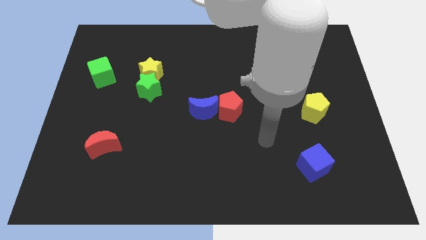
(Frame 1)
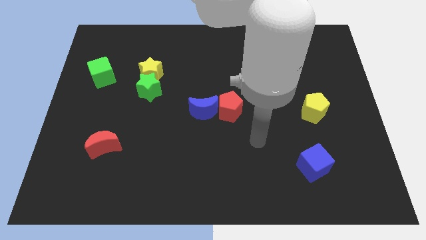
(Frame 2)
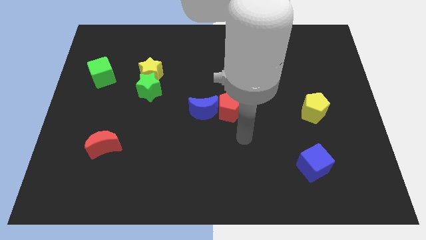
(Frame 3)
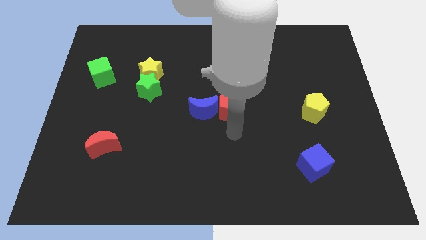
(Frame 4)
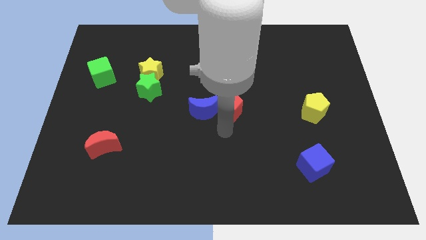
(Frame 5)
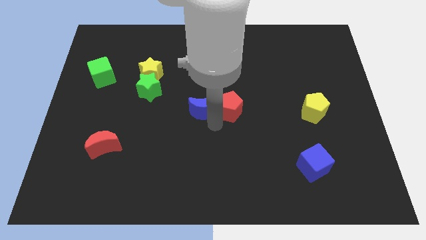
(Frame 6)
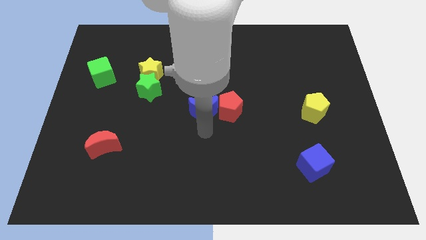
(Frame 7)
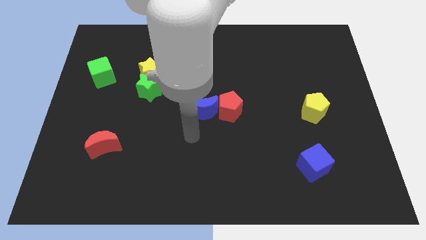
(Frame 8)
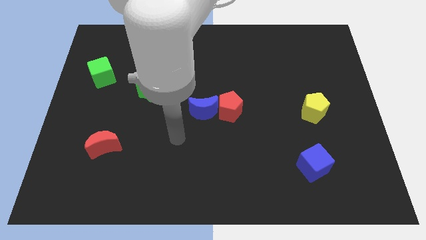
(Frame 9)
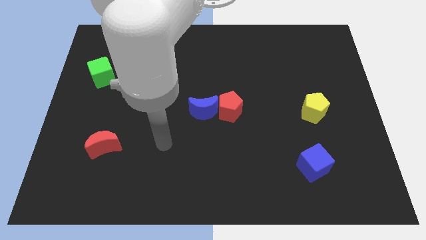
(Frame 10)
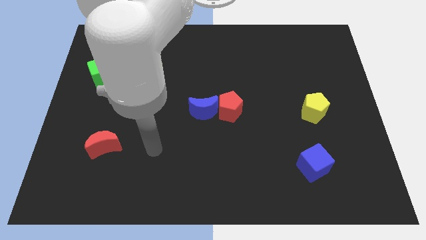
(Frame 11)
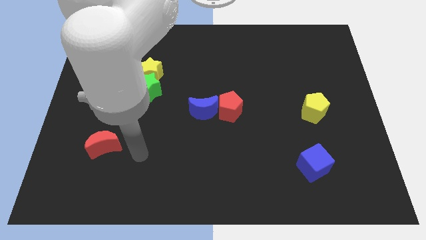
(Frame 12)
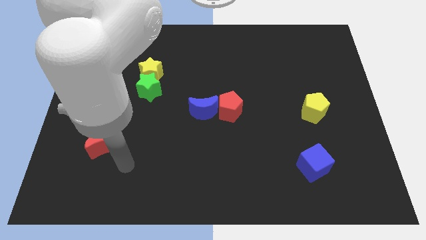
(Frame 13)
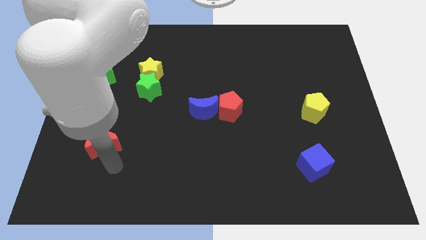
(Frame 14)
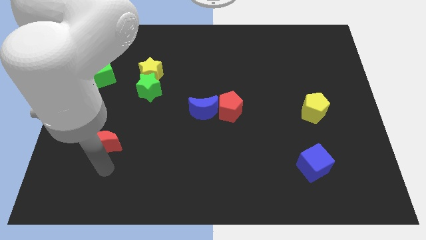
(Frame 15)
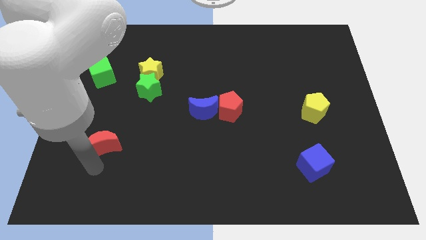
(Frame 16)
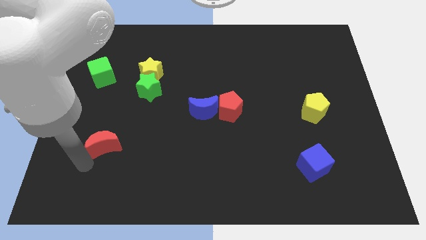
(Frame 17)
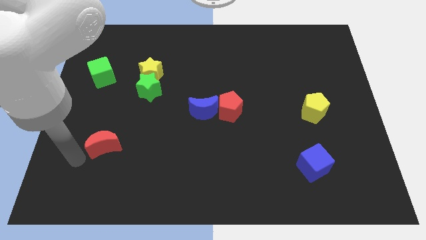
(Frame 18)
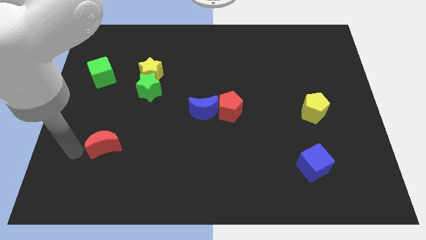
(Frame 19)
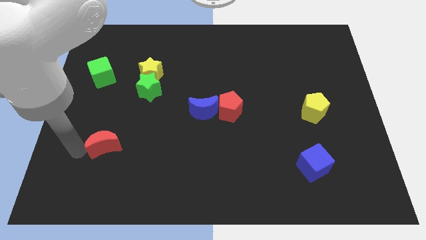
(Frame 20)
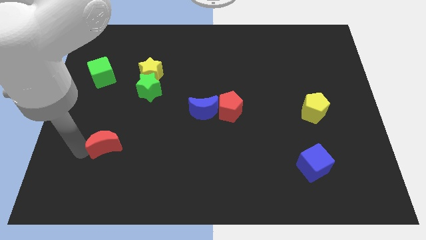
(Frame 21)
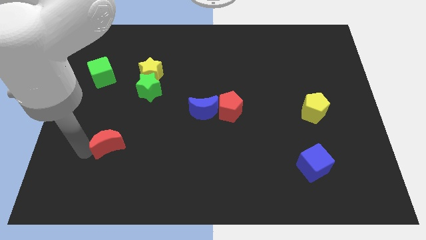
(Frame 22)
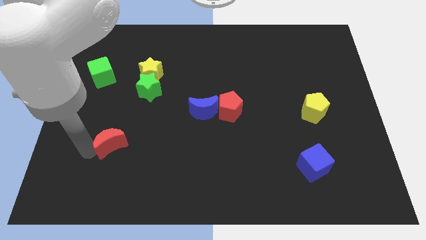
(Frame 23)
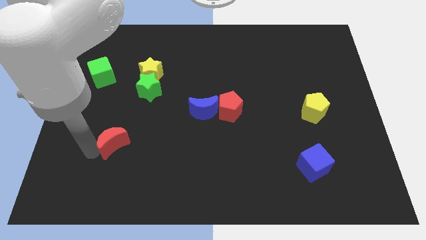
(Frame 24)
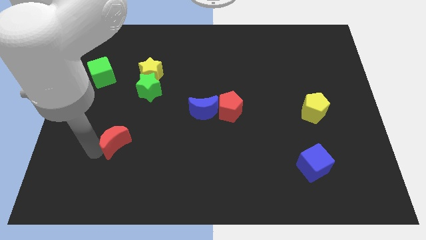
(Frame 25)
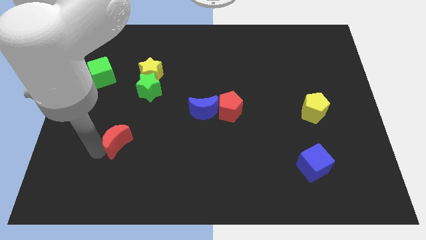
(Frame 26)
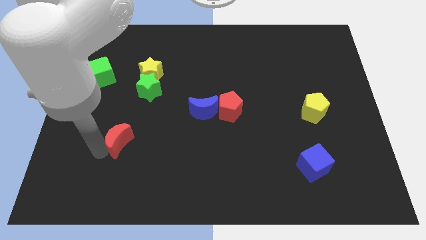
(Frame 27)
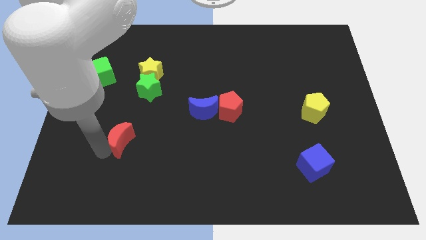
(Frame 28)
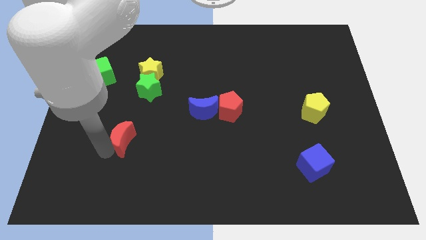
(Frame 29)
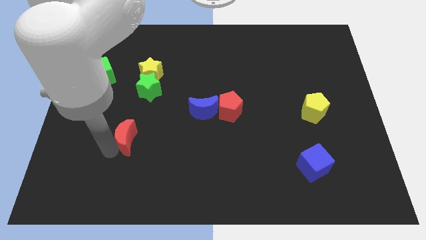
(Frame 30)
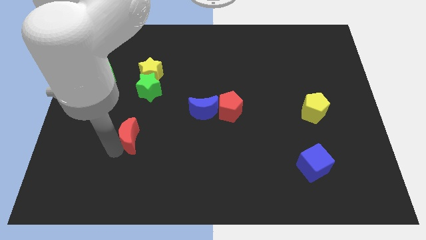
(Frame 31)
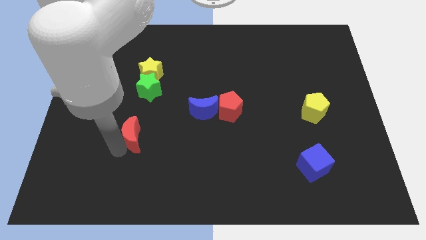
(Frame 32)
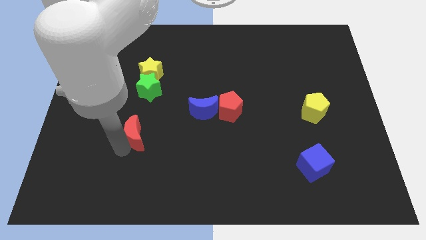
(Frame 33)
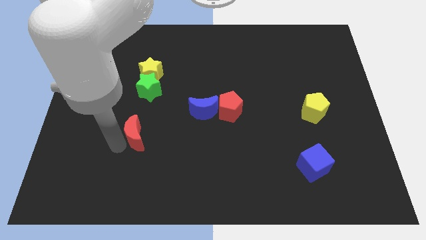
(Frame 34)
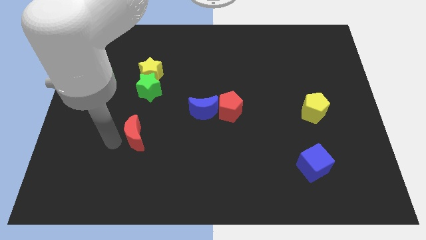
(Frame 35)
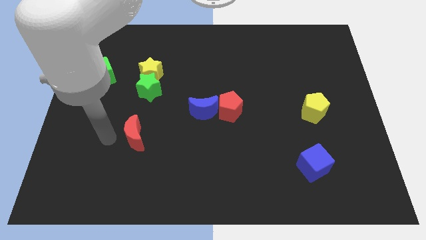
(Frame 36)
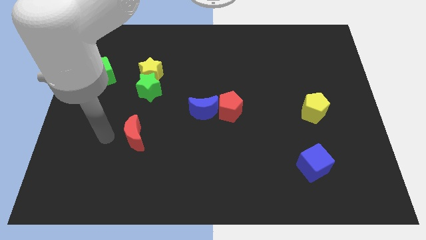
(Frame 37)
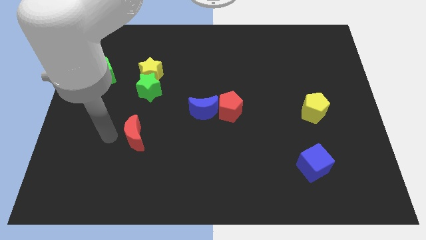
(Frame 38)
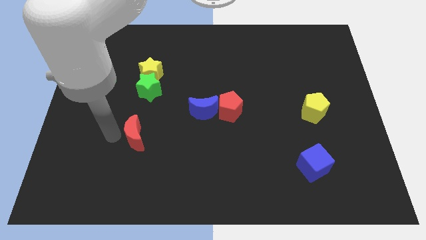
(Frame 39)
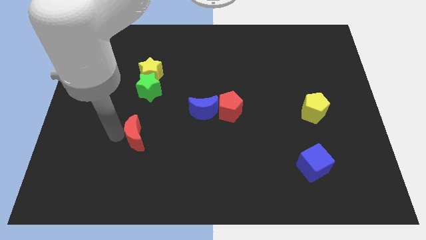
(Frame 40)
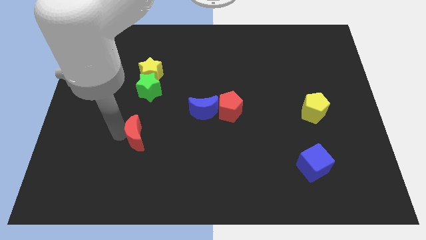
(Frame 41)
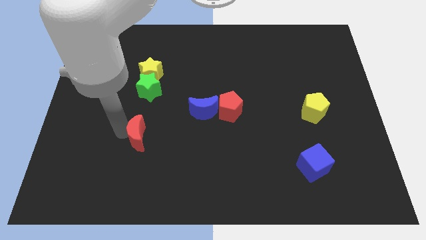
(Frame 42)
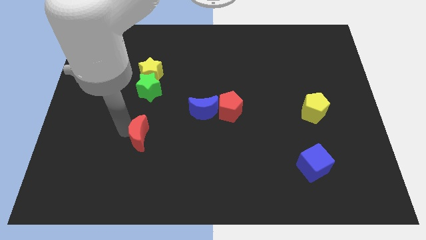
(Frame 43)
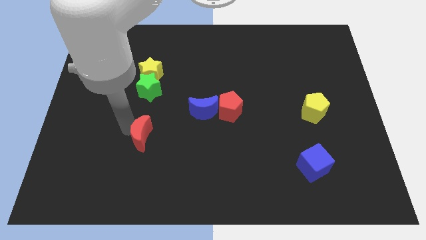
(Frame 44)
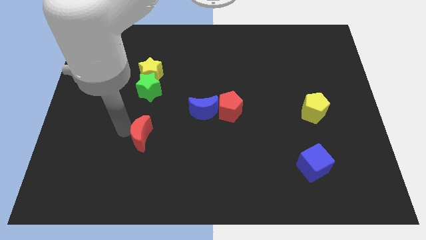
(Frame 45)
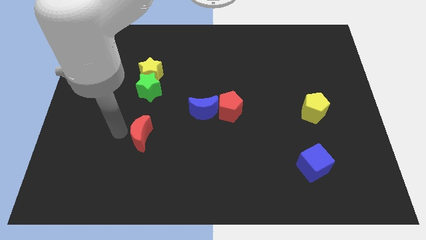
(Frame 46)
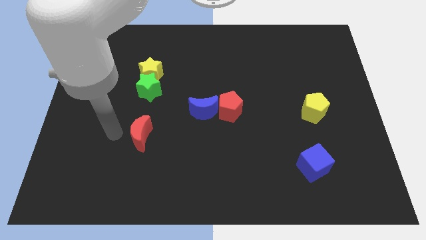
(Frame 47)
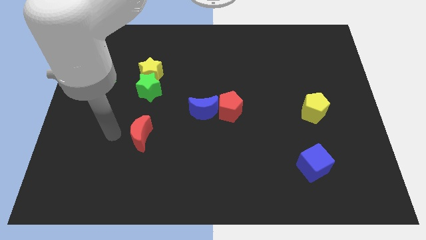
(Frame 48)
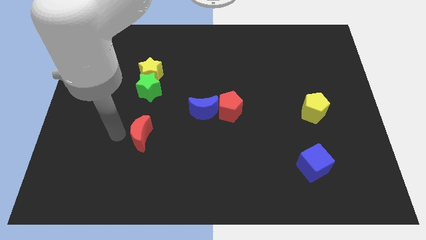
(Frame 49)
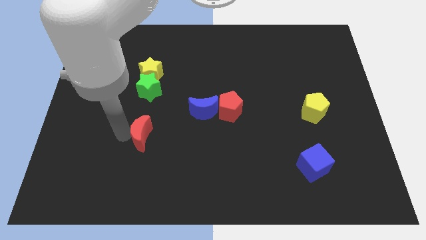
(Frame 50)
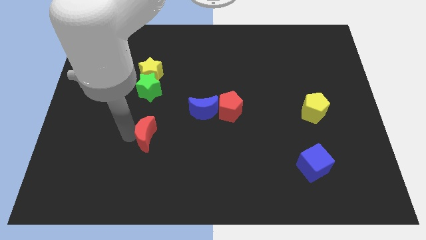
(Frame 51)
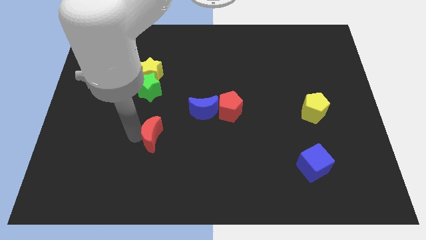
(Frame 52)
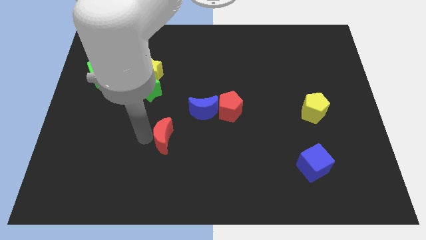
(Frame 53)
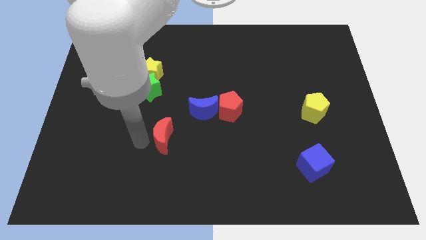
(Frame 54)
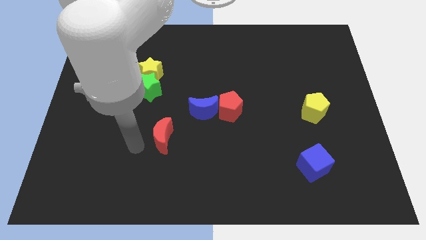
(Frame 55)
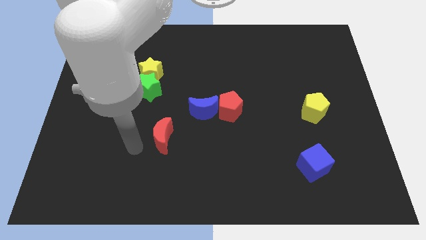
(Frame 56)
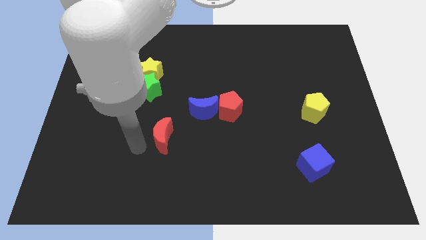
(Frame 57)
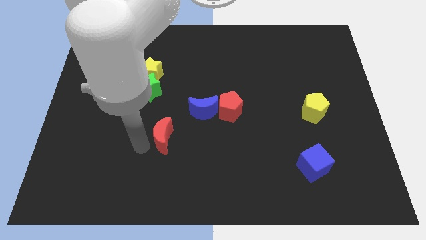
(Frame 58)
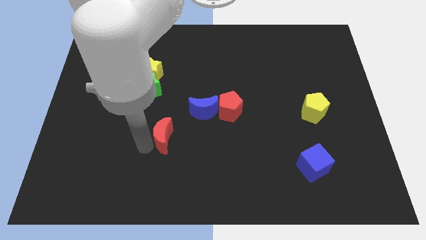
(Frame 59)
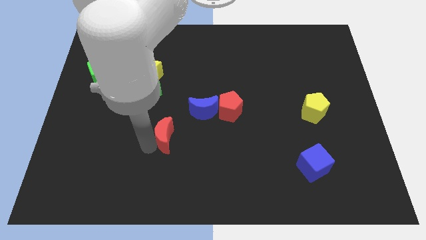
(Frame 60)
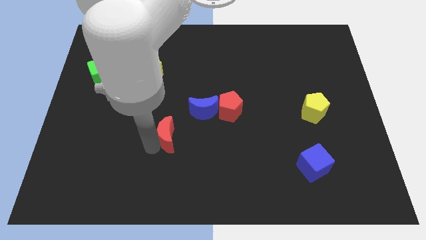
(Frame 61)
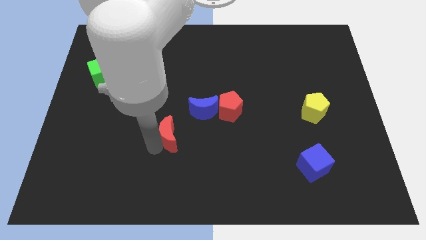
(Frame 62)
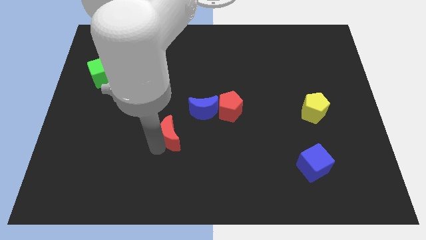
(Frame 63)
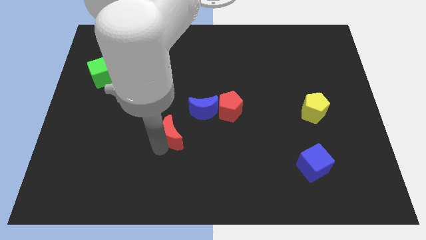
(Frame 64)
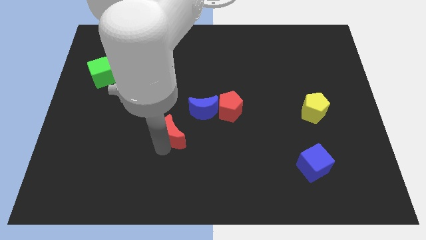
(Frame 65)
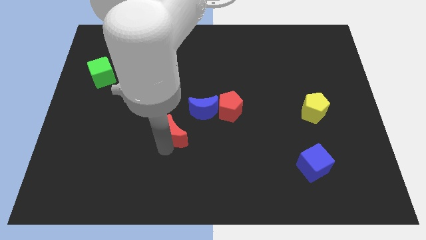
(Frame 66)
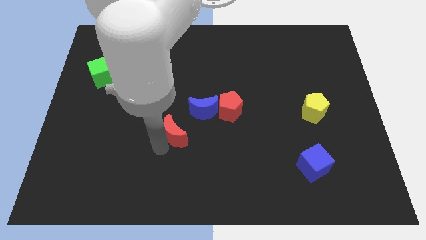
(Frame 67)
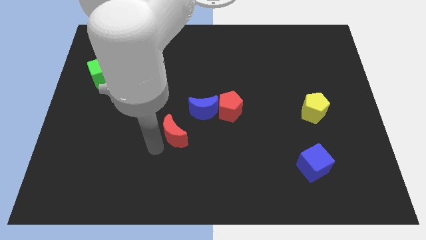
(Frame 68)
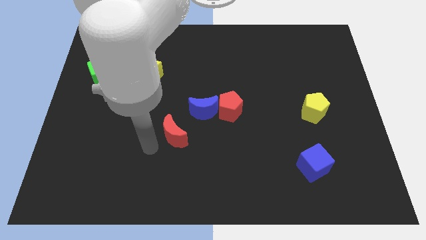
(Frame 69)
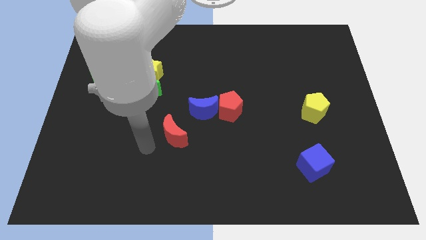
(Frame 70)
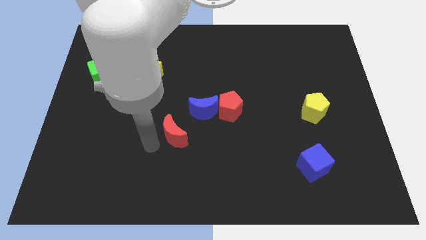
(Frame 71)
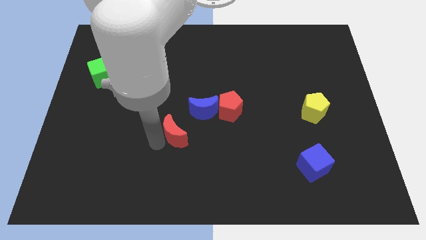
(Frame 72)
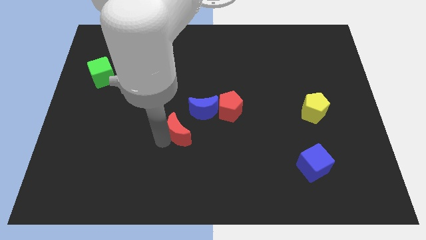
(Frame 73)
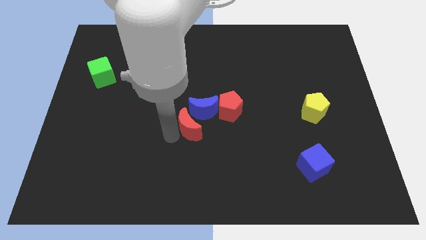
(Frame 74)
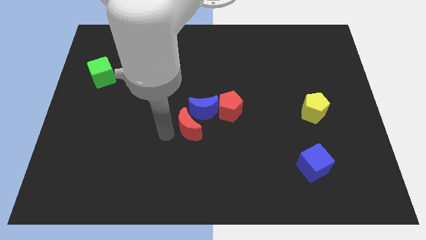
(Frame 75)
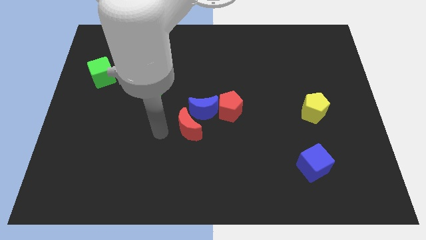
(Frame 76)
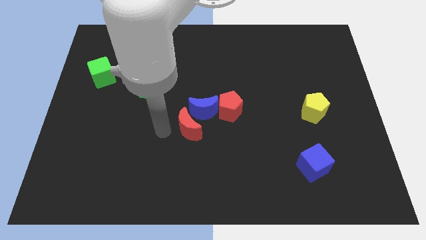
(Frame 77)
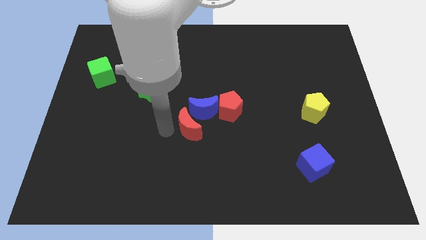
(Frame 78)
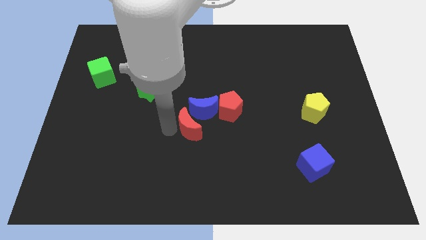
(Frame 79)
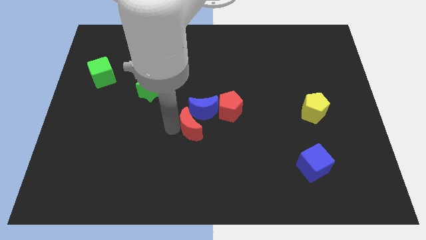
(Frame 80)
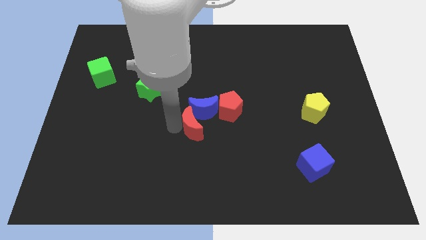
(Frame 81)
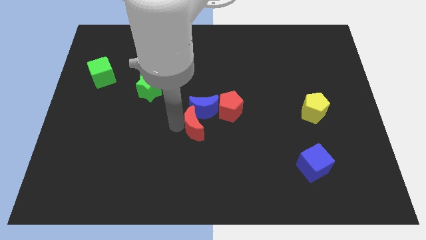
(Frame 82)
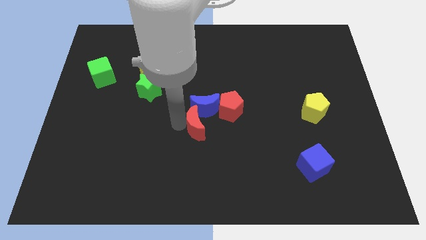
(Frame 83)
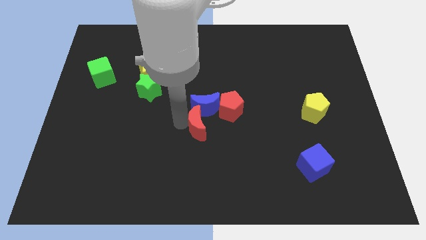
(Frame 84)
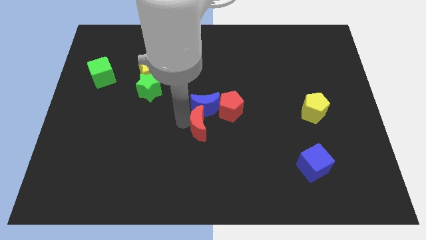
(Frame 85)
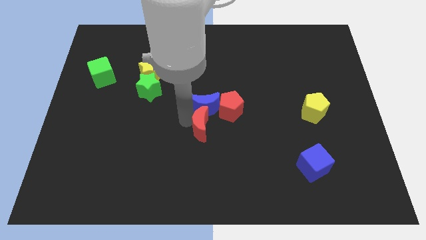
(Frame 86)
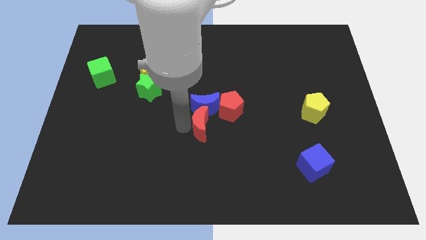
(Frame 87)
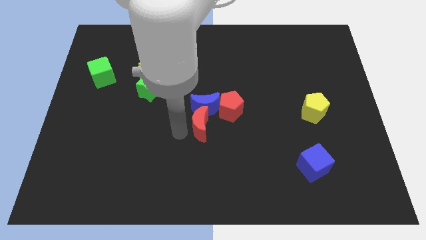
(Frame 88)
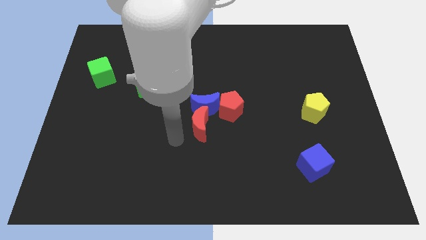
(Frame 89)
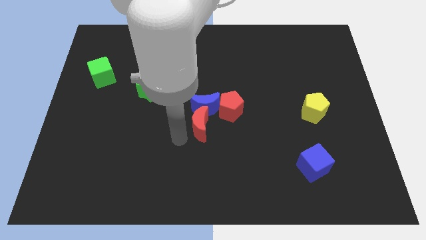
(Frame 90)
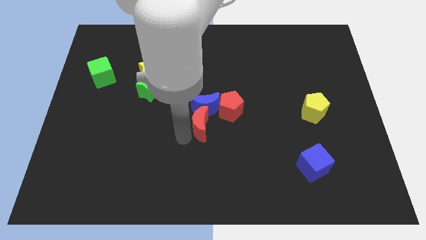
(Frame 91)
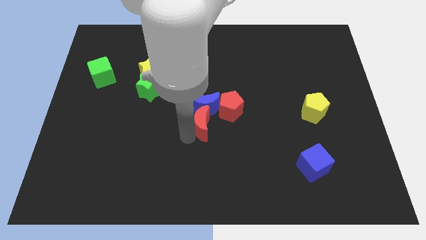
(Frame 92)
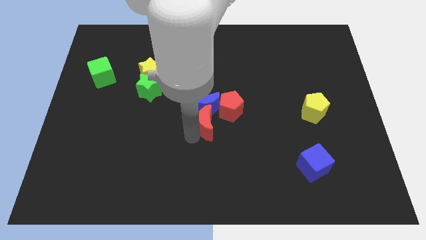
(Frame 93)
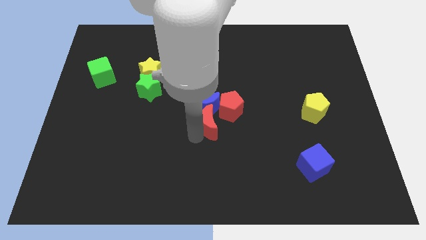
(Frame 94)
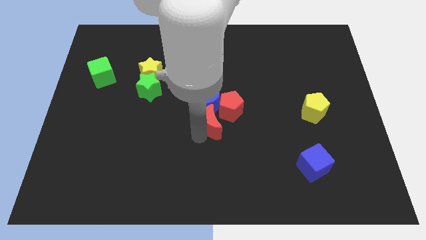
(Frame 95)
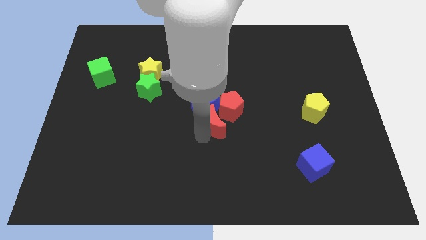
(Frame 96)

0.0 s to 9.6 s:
slide the red moon to the red pentagon
